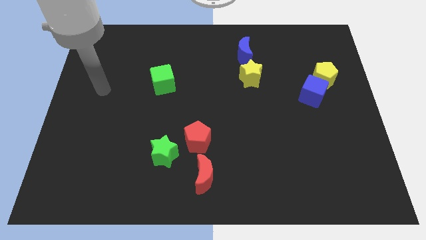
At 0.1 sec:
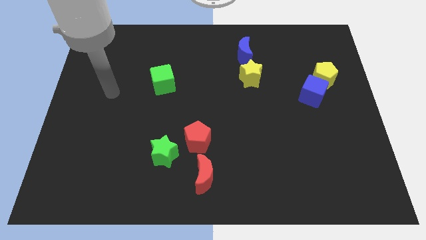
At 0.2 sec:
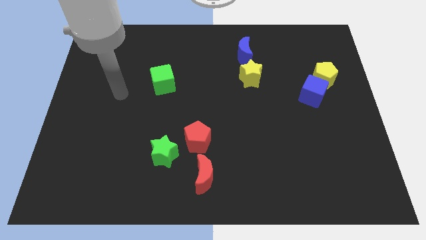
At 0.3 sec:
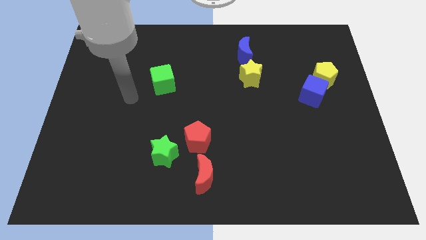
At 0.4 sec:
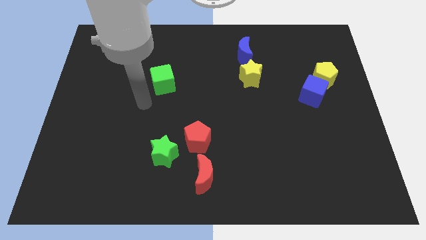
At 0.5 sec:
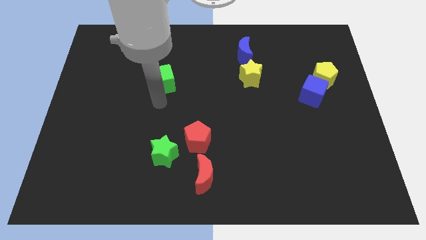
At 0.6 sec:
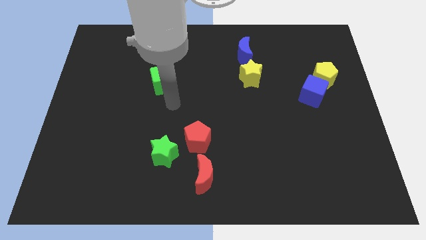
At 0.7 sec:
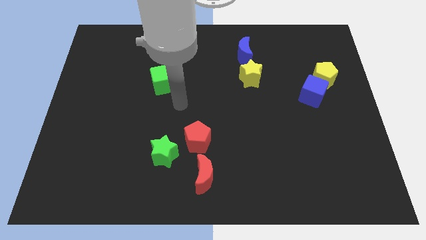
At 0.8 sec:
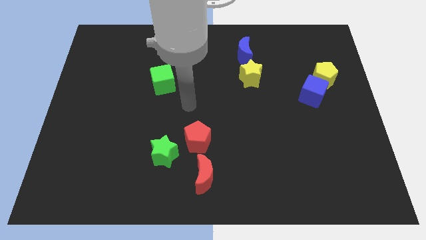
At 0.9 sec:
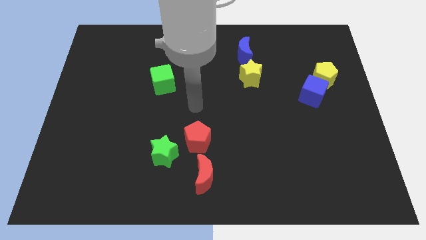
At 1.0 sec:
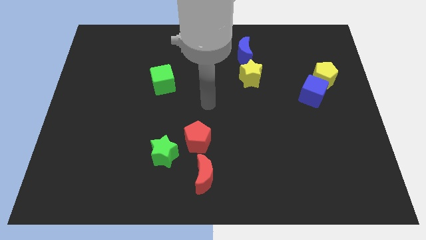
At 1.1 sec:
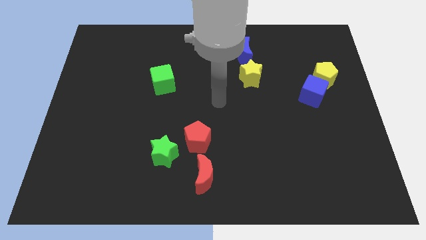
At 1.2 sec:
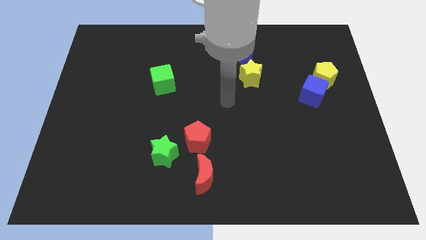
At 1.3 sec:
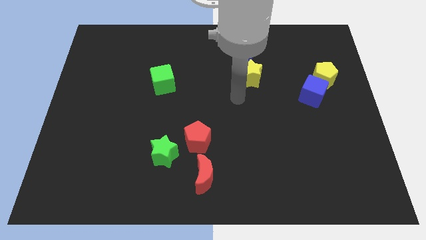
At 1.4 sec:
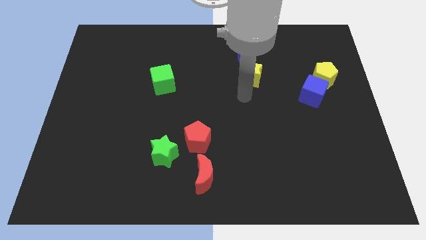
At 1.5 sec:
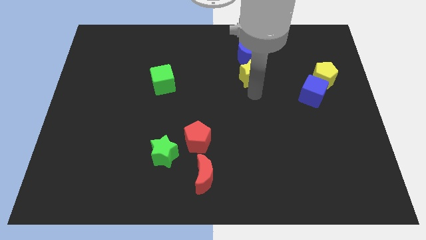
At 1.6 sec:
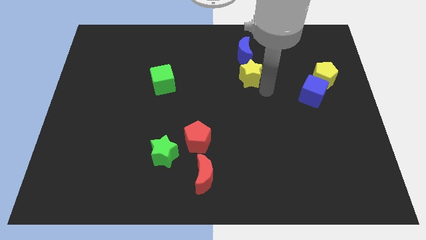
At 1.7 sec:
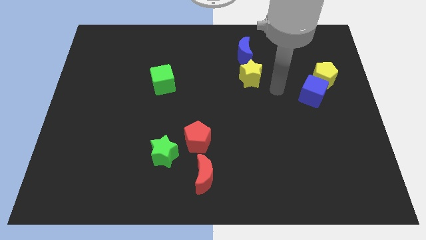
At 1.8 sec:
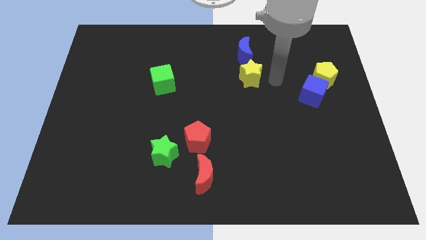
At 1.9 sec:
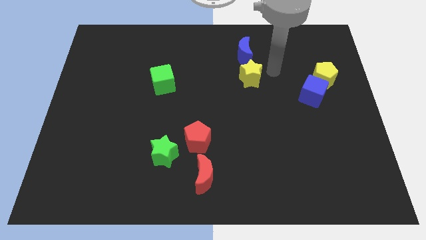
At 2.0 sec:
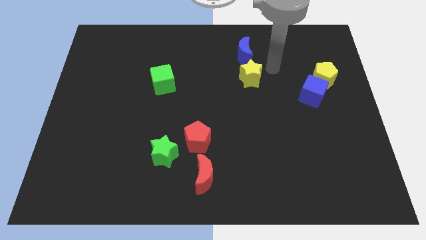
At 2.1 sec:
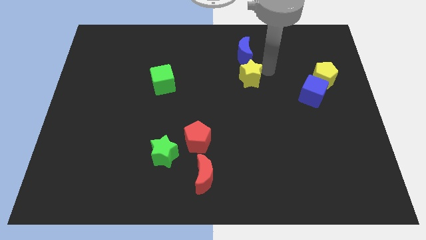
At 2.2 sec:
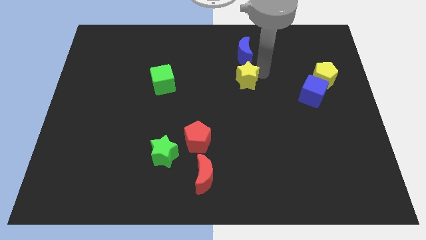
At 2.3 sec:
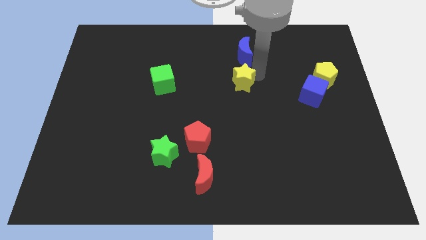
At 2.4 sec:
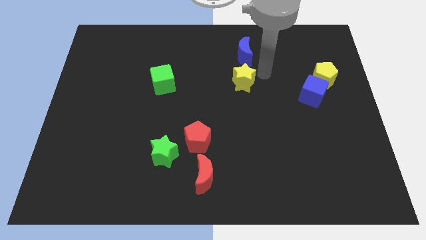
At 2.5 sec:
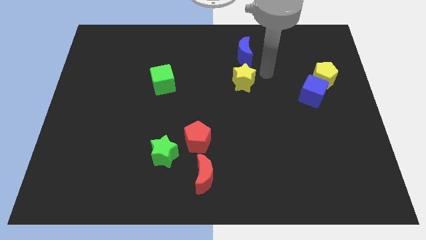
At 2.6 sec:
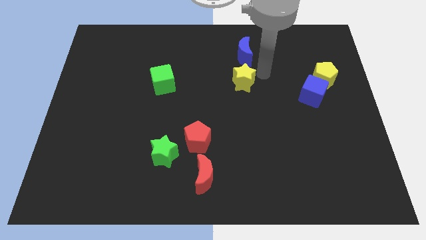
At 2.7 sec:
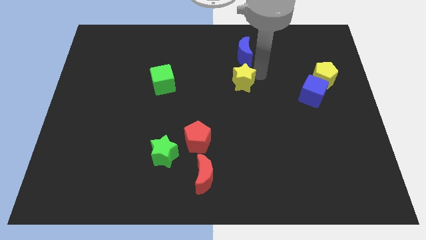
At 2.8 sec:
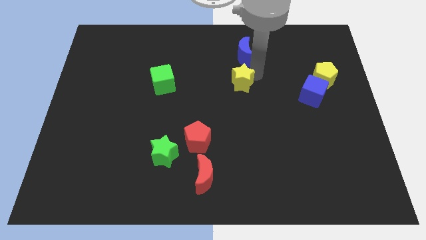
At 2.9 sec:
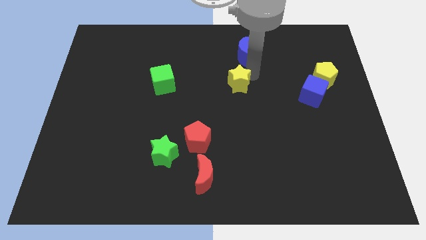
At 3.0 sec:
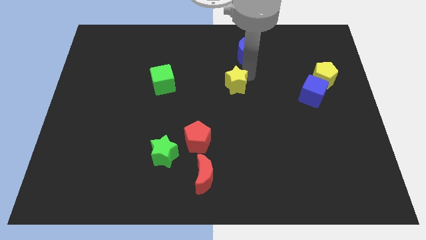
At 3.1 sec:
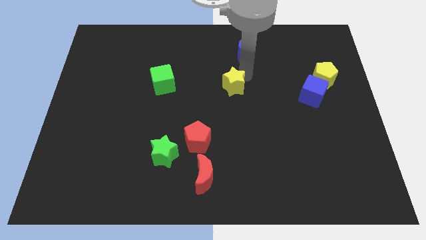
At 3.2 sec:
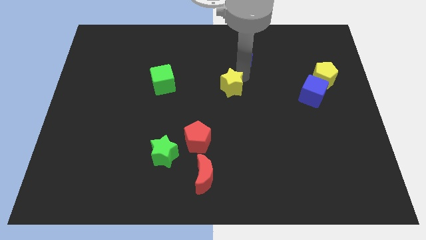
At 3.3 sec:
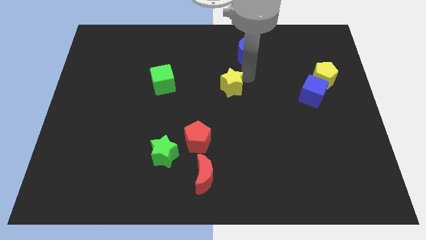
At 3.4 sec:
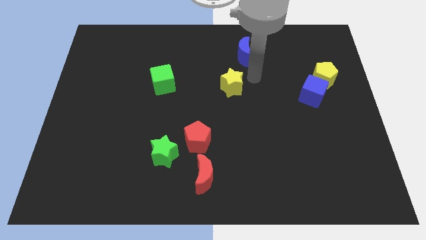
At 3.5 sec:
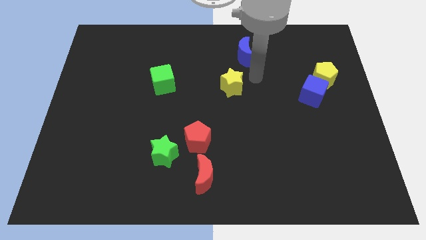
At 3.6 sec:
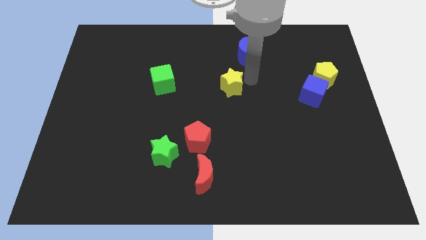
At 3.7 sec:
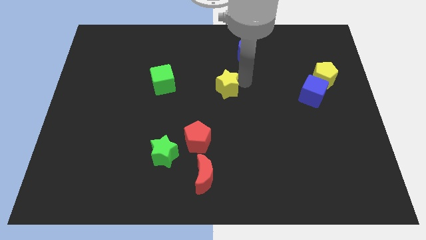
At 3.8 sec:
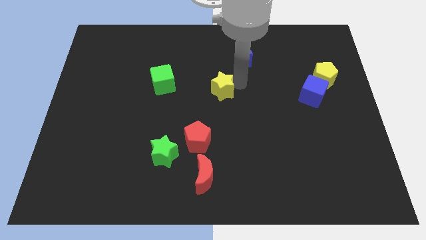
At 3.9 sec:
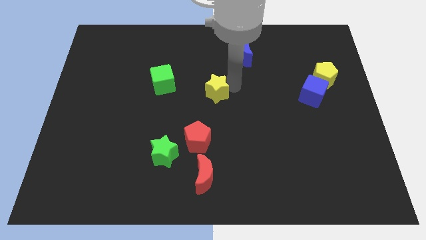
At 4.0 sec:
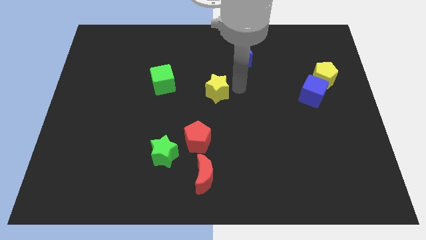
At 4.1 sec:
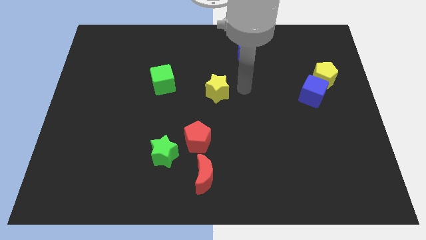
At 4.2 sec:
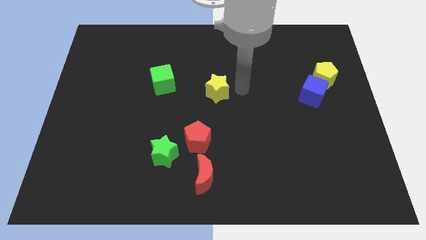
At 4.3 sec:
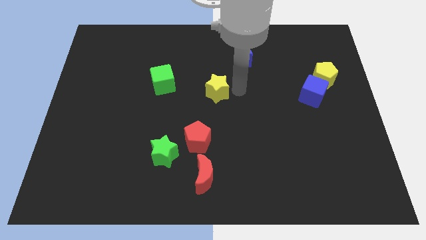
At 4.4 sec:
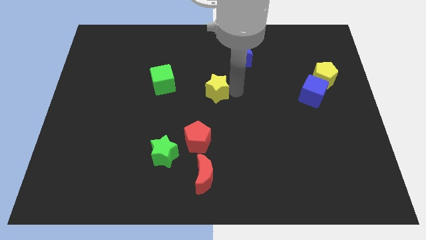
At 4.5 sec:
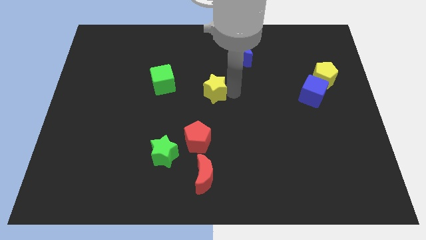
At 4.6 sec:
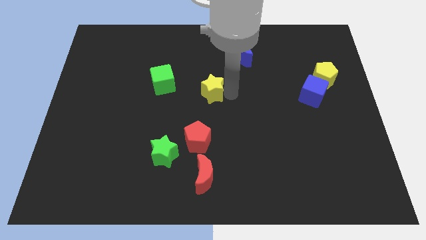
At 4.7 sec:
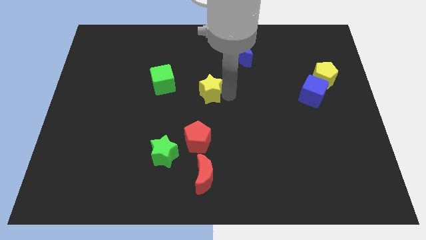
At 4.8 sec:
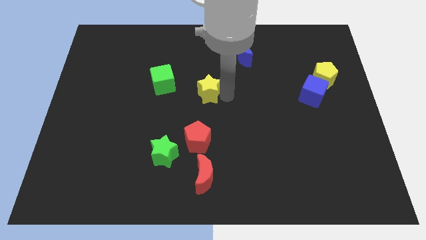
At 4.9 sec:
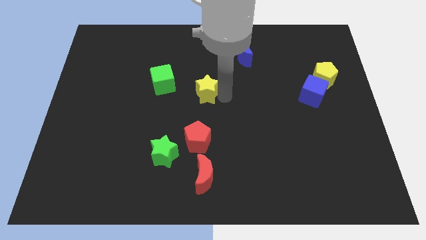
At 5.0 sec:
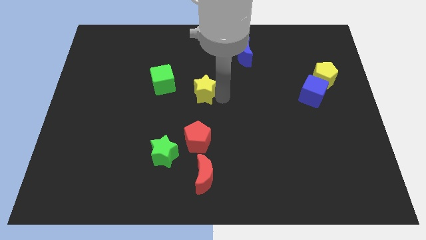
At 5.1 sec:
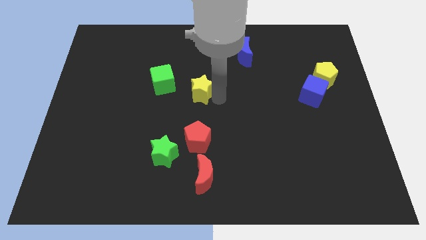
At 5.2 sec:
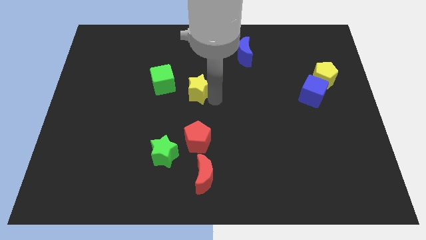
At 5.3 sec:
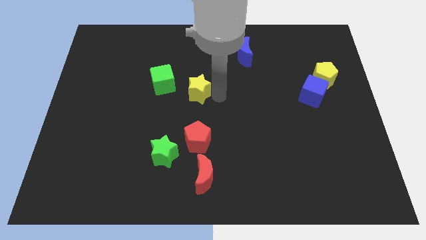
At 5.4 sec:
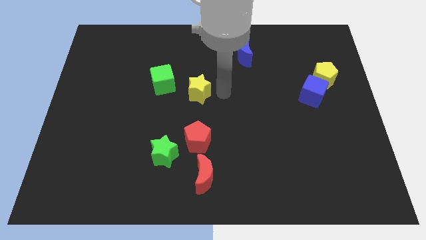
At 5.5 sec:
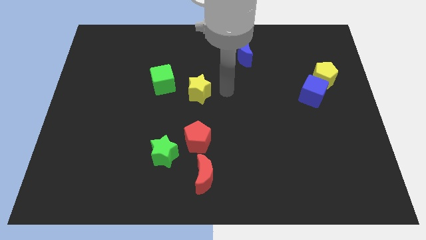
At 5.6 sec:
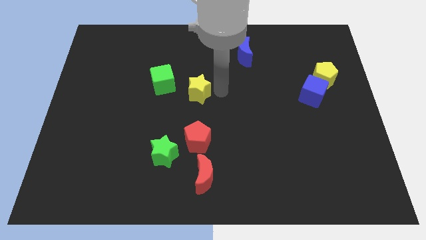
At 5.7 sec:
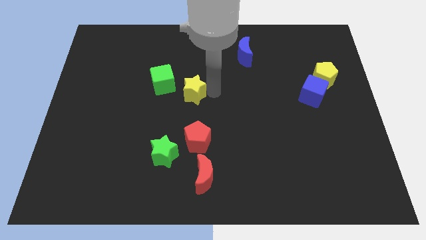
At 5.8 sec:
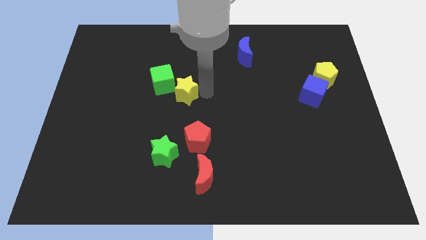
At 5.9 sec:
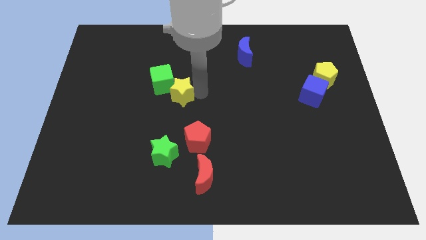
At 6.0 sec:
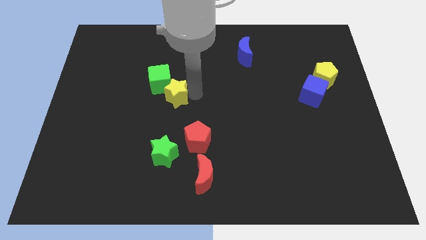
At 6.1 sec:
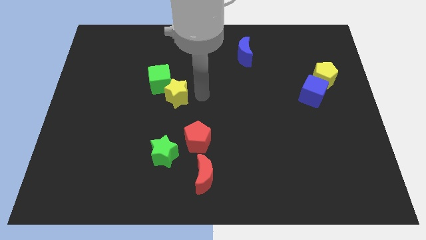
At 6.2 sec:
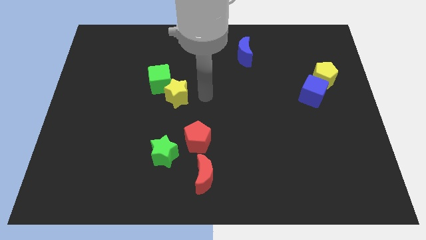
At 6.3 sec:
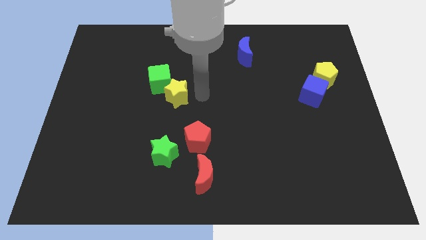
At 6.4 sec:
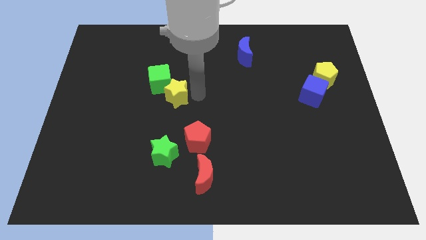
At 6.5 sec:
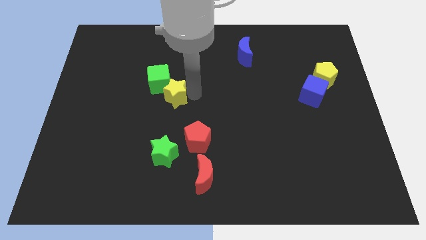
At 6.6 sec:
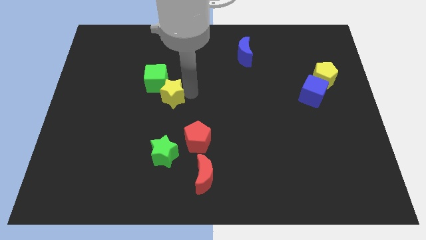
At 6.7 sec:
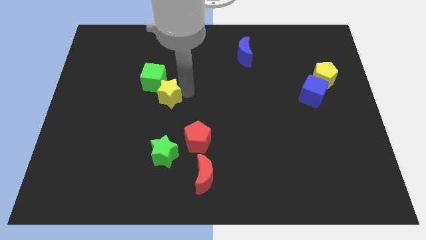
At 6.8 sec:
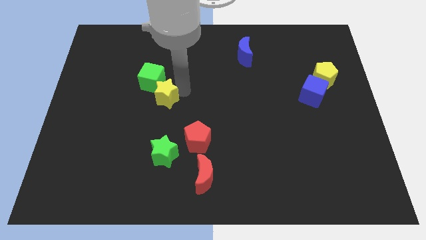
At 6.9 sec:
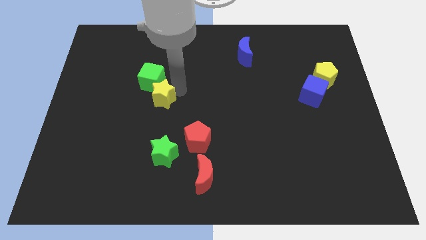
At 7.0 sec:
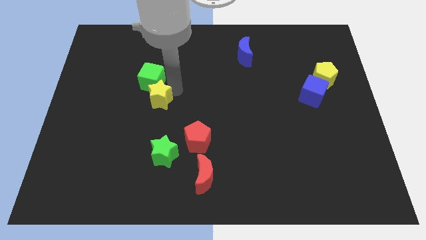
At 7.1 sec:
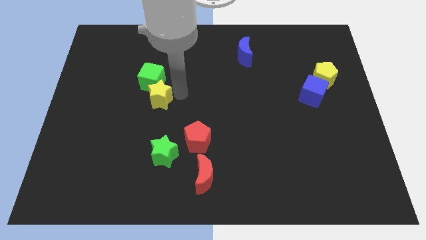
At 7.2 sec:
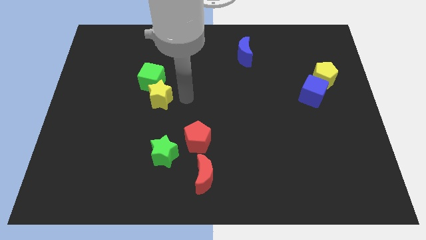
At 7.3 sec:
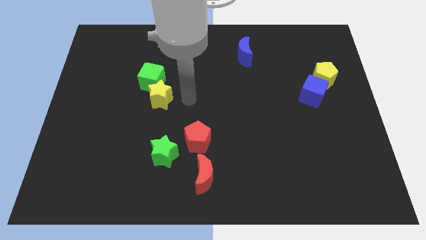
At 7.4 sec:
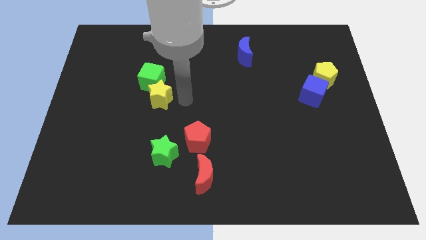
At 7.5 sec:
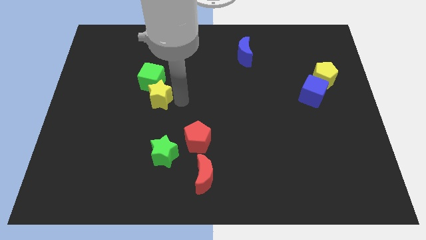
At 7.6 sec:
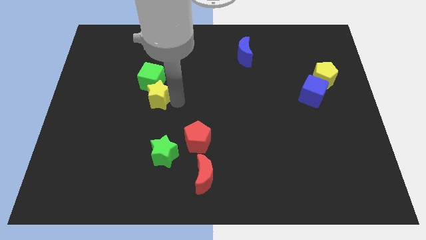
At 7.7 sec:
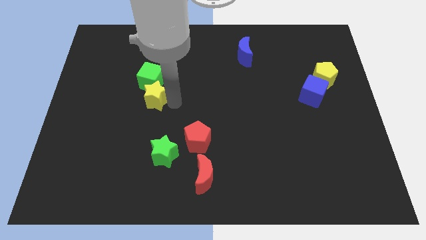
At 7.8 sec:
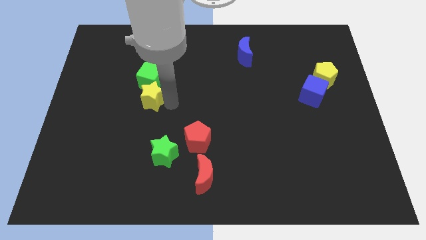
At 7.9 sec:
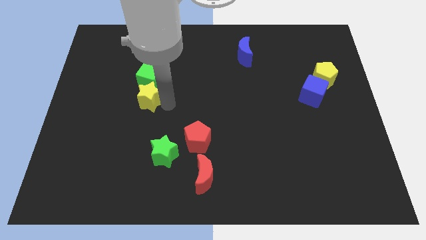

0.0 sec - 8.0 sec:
push the yellow star to the bottom left of the green cube
